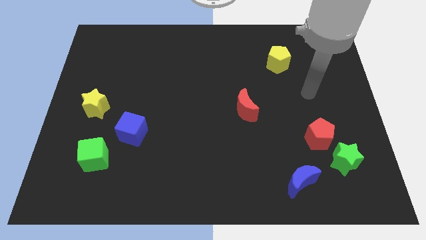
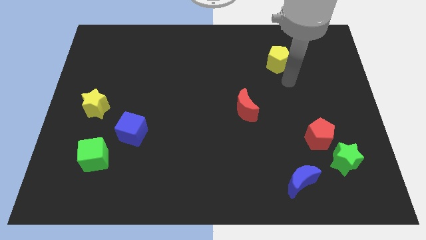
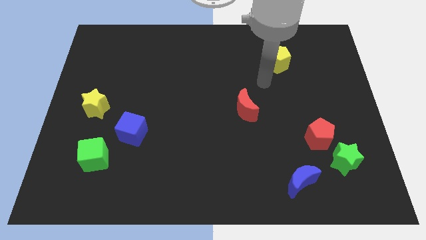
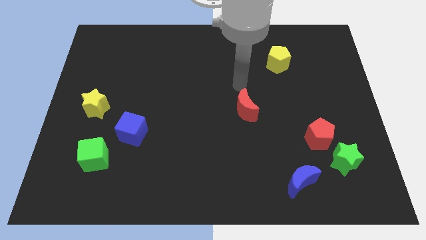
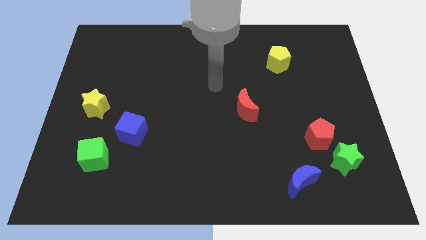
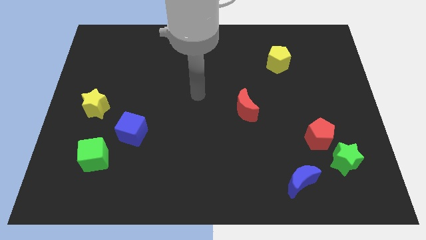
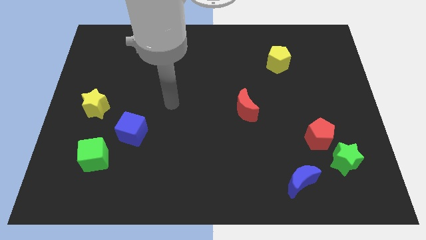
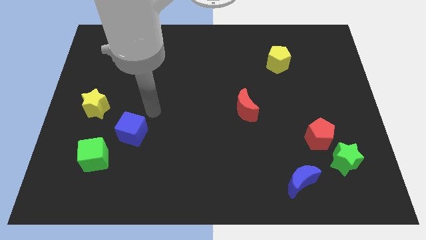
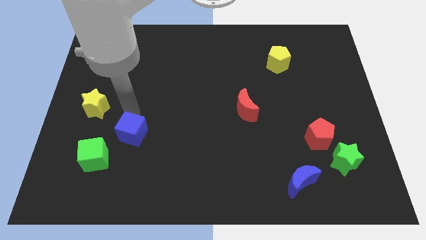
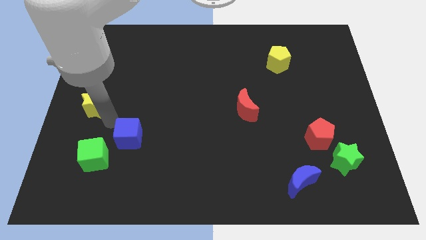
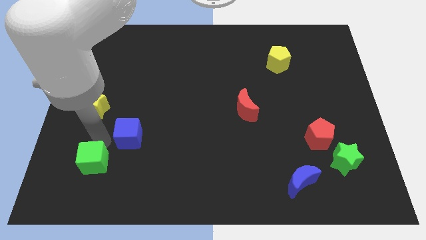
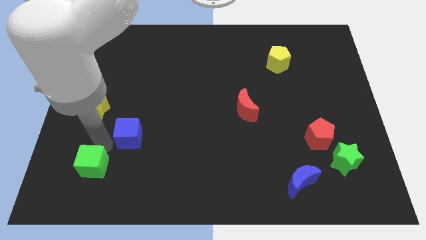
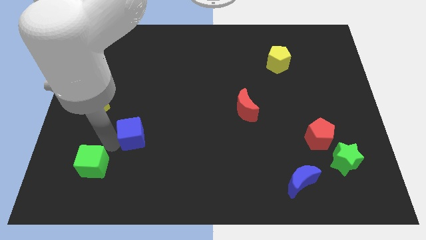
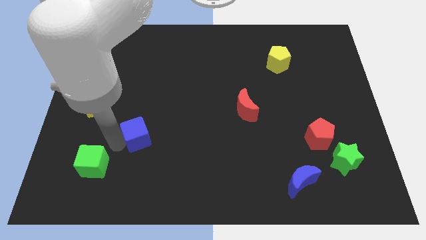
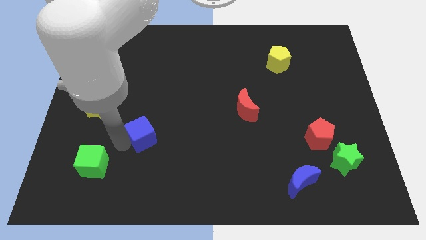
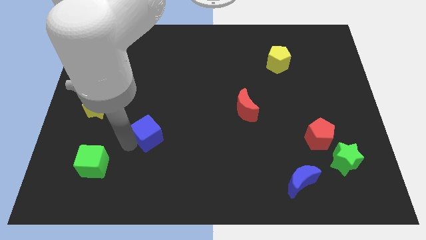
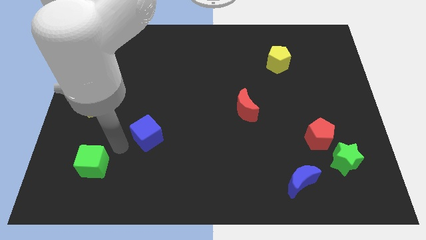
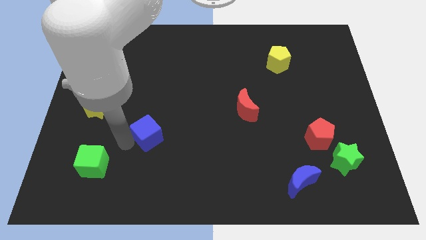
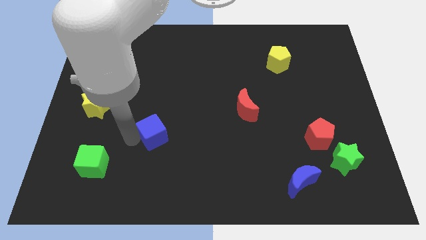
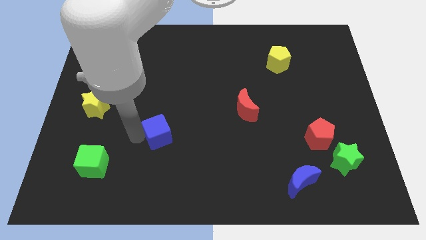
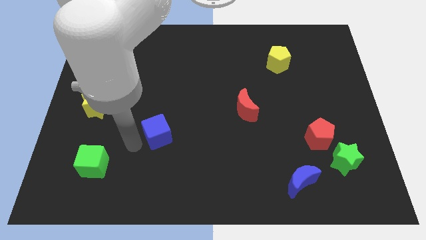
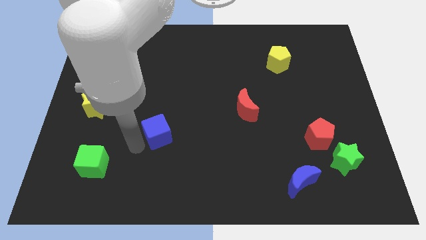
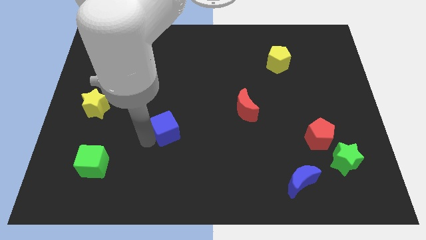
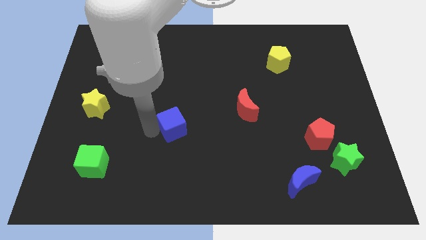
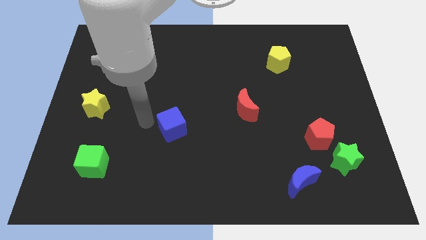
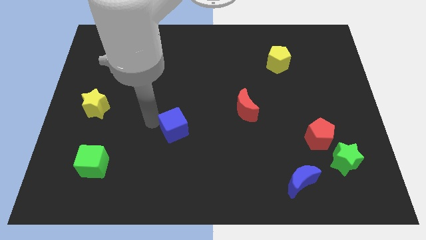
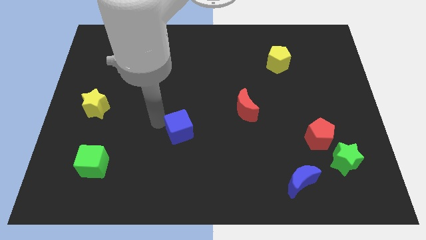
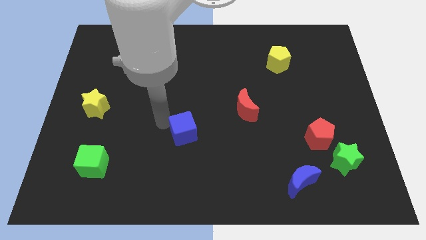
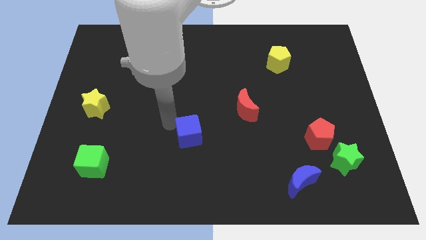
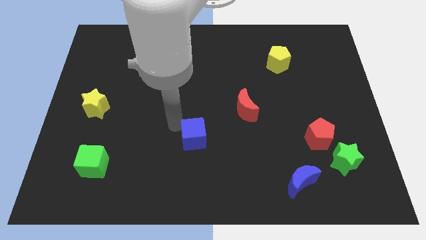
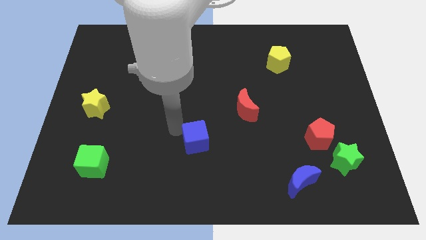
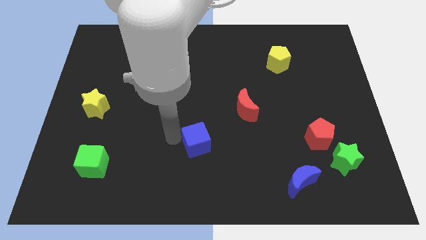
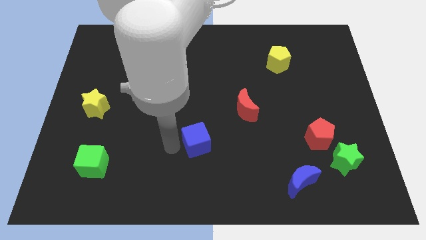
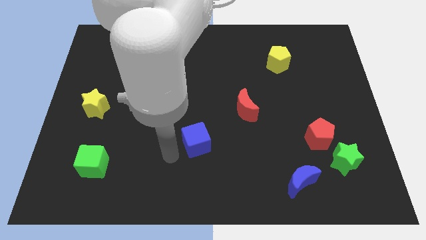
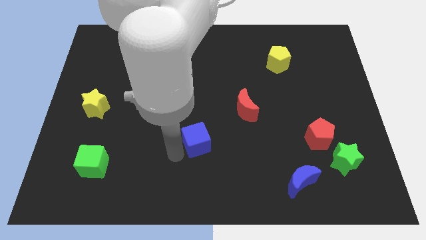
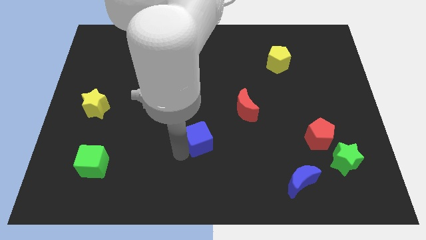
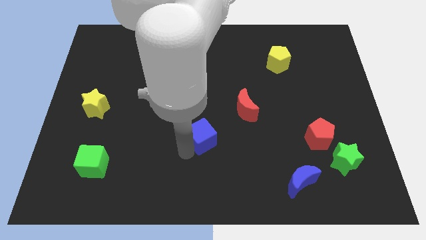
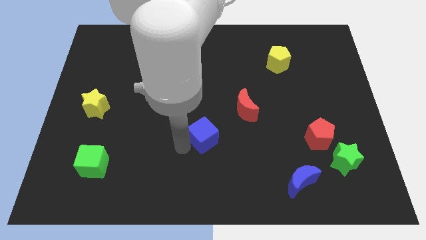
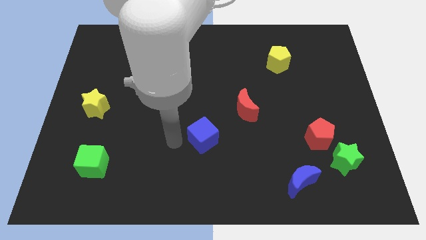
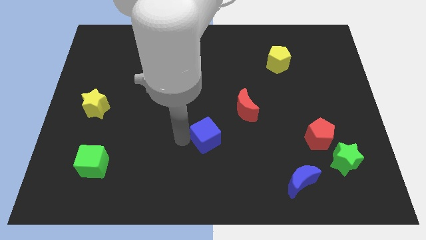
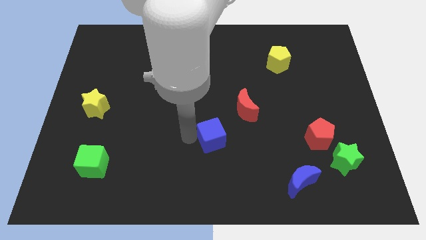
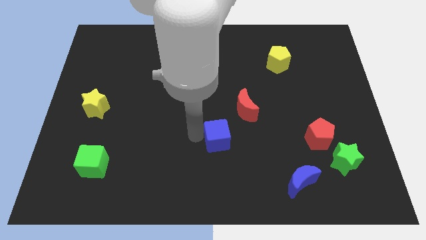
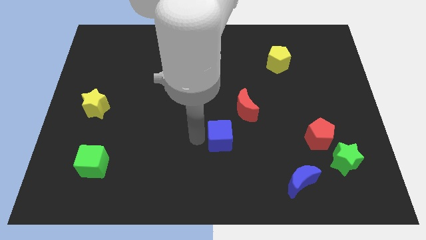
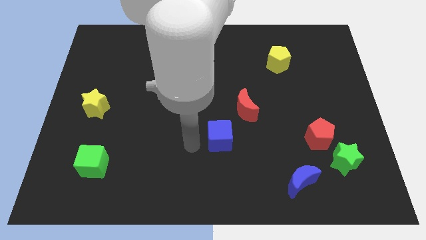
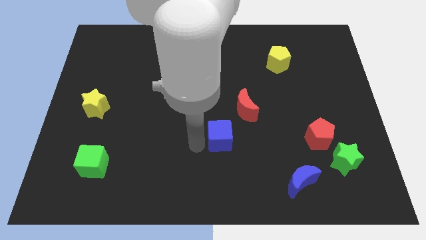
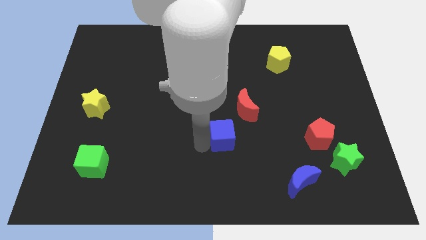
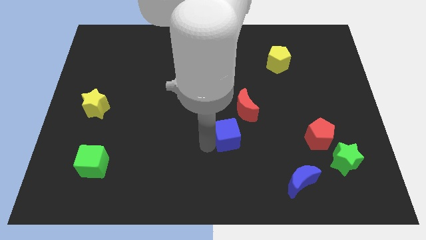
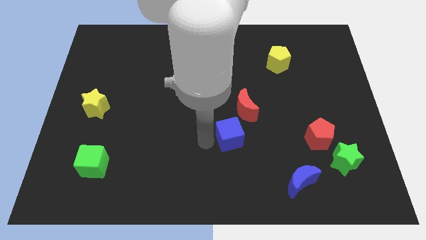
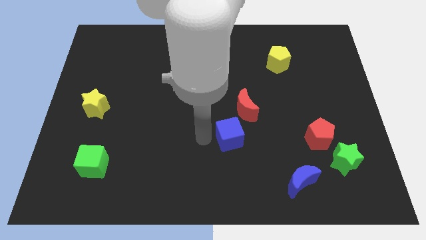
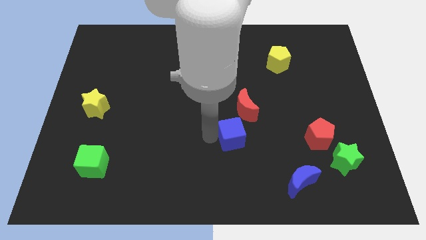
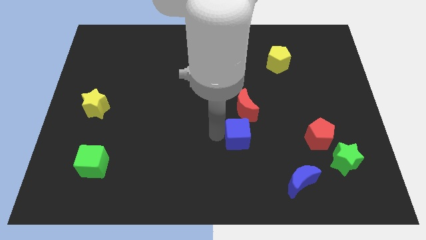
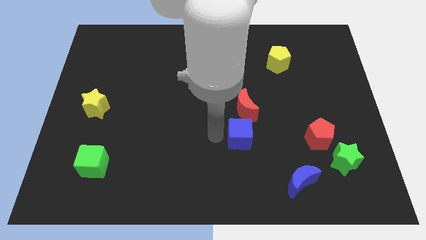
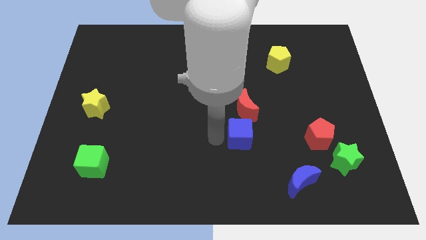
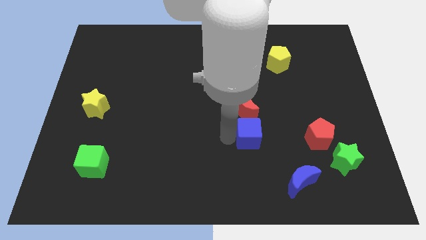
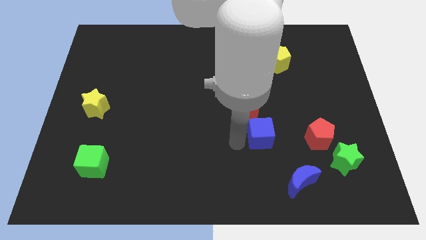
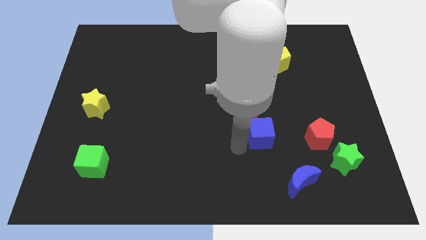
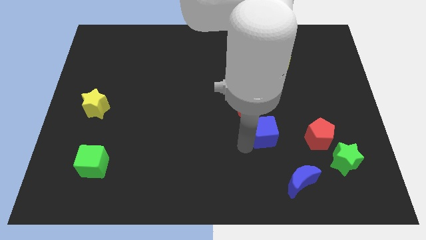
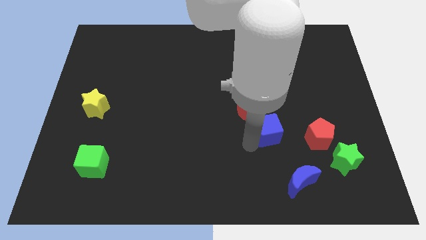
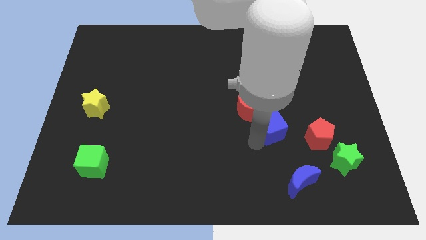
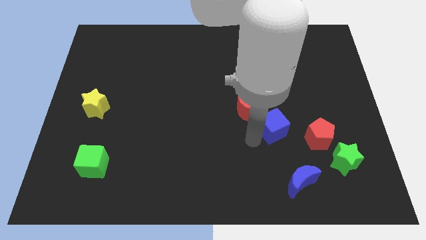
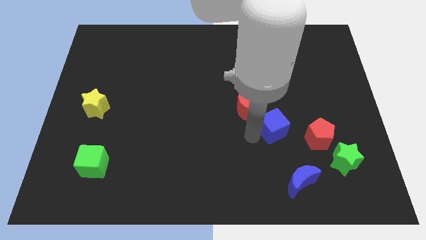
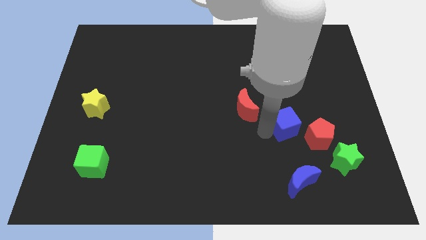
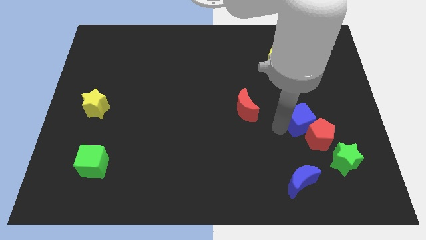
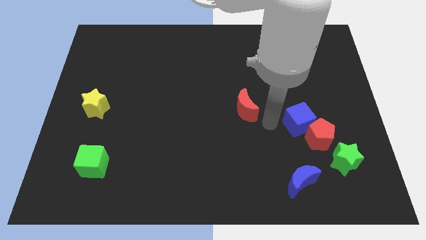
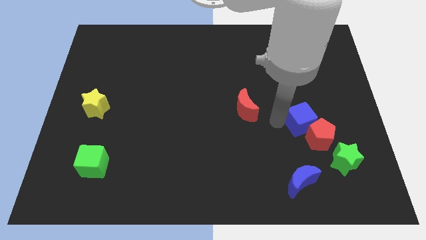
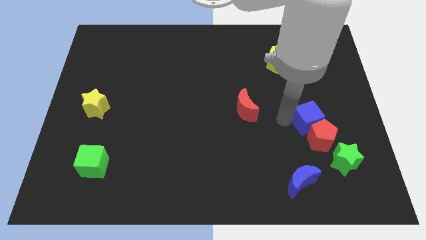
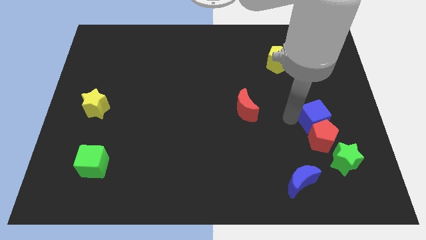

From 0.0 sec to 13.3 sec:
push the blue cube above the green star

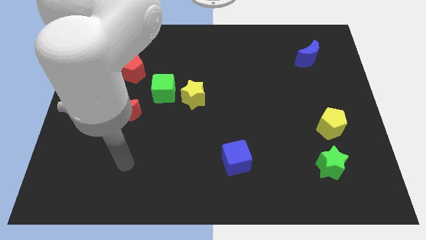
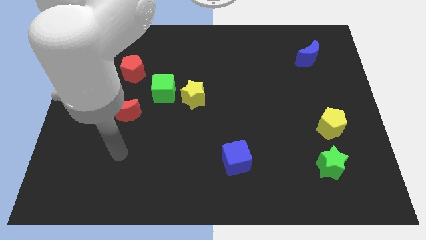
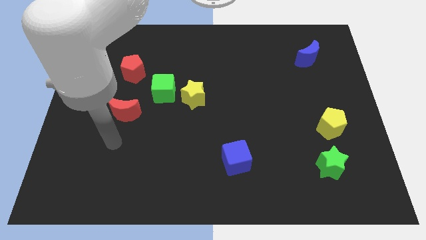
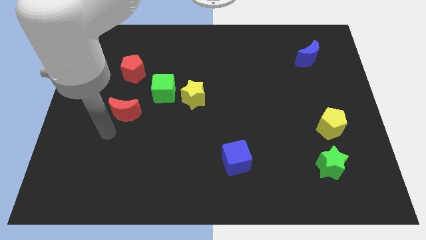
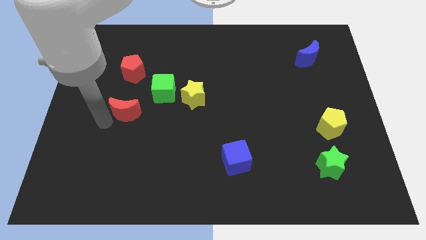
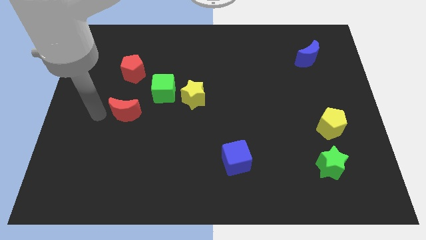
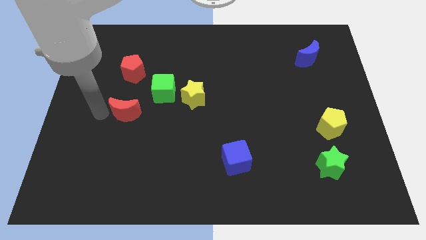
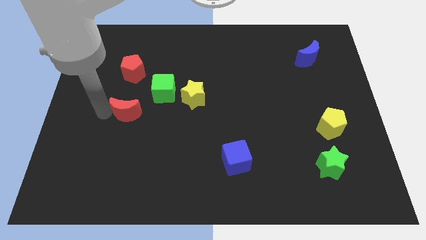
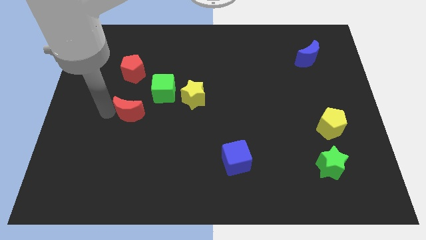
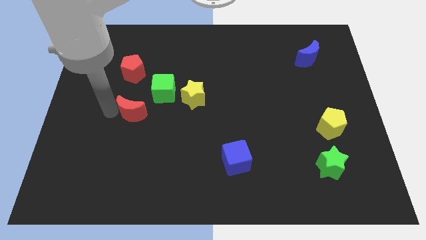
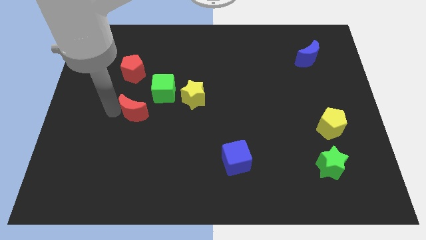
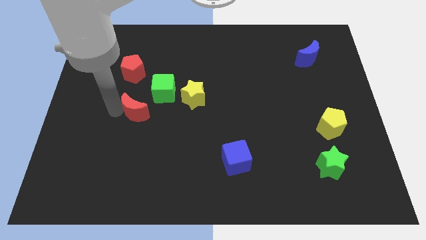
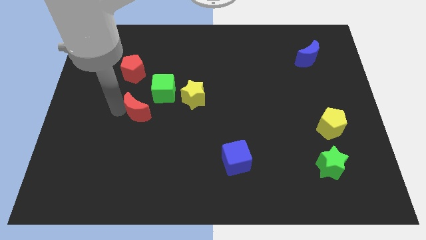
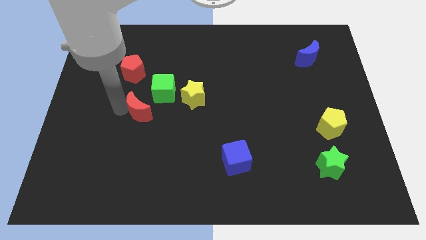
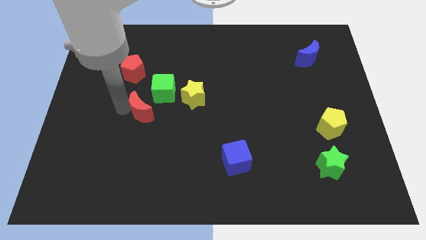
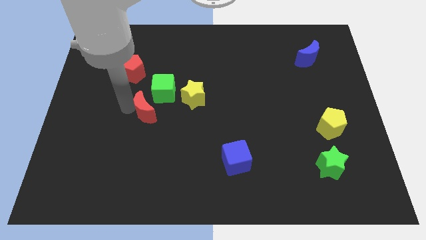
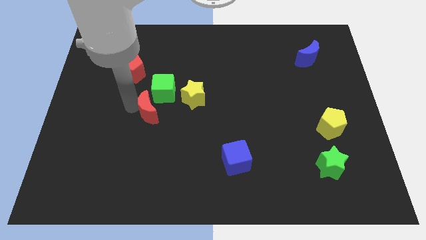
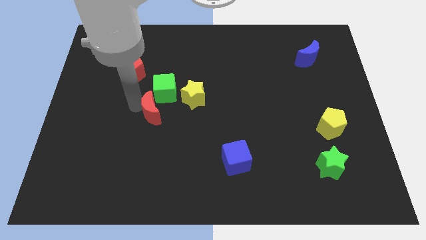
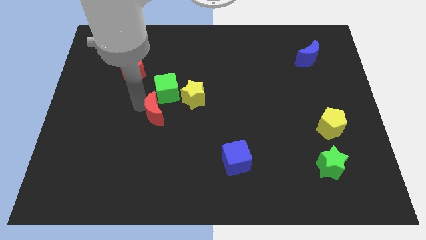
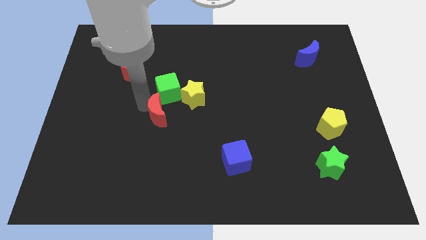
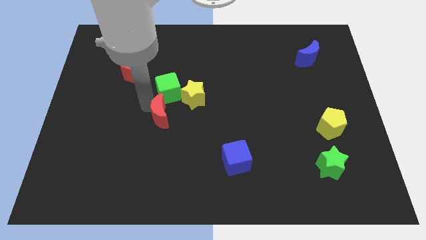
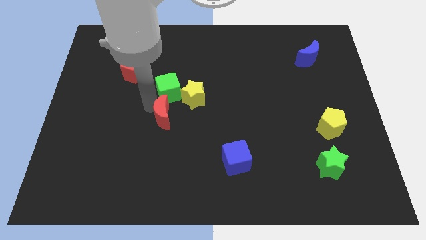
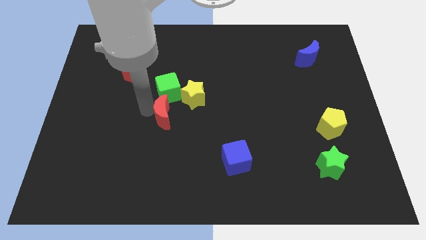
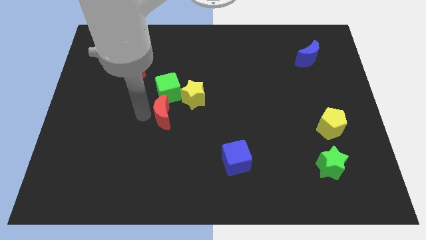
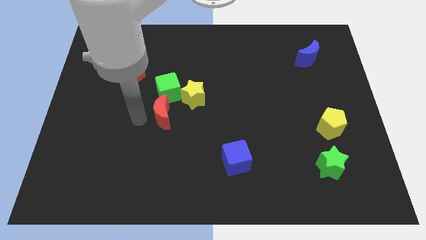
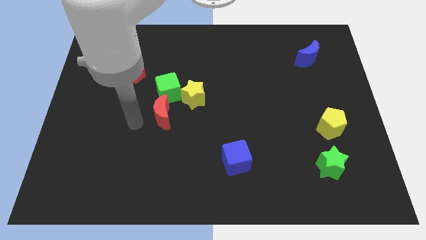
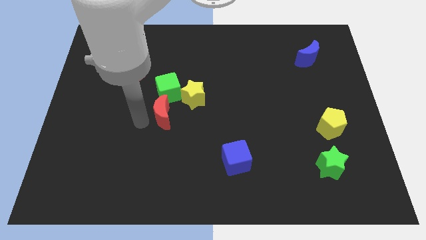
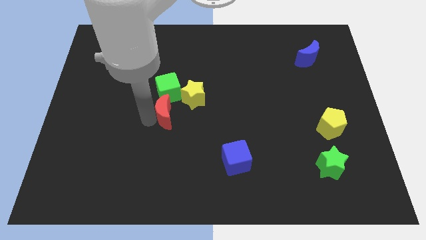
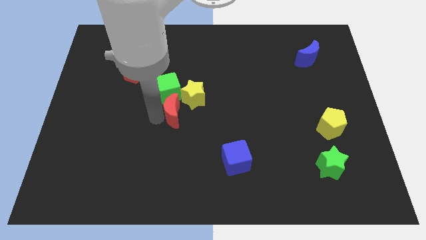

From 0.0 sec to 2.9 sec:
slide the red moon diagonally down and to the right of the green cube
